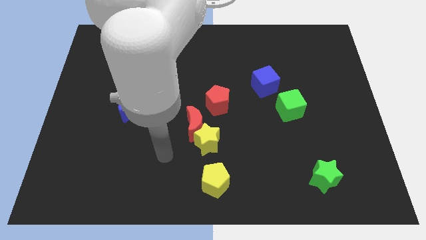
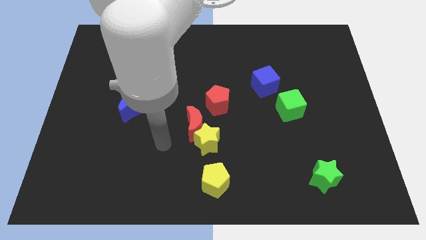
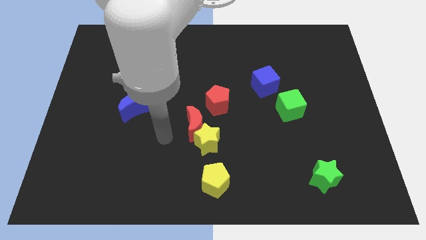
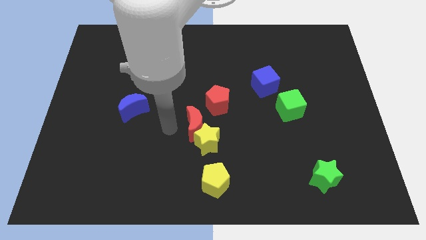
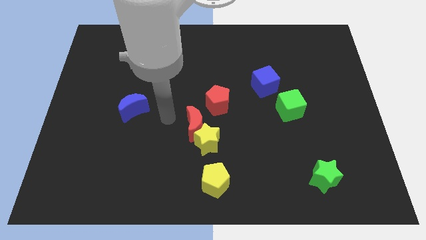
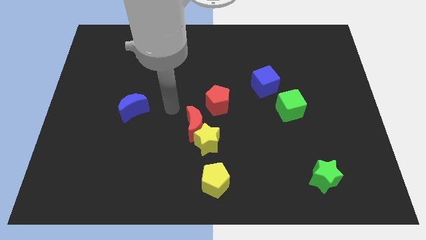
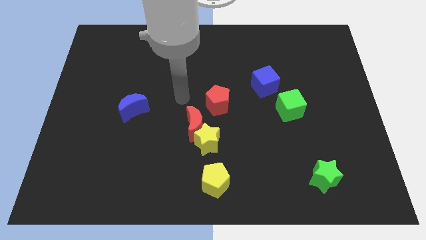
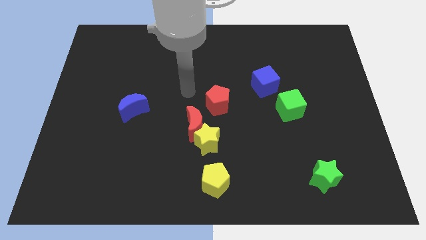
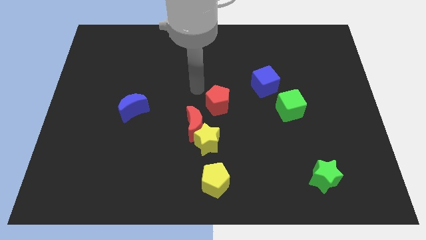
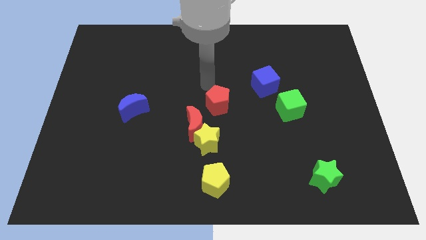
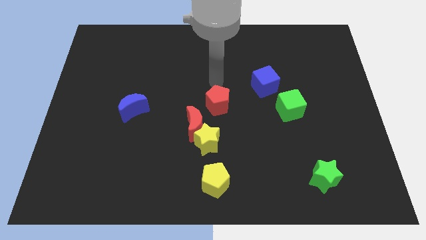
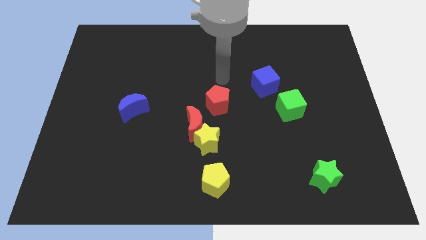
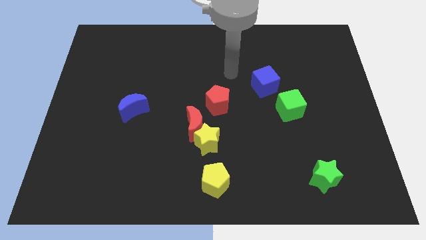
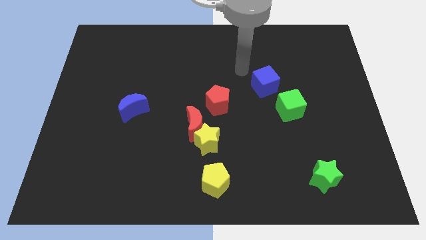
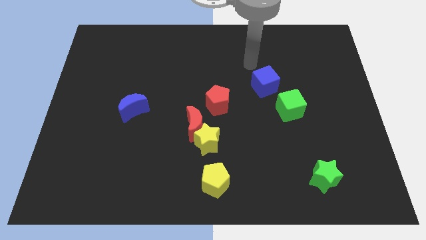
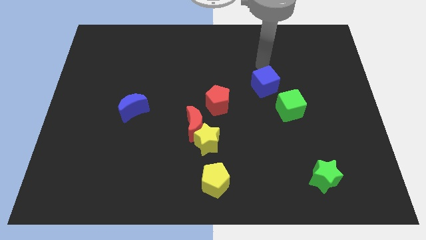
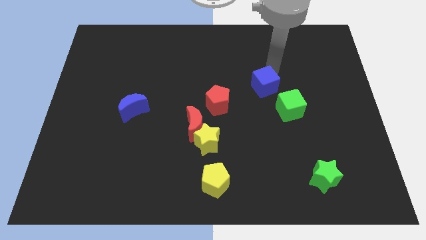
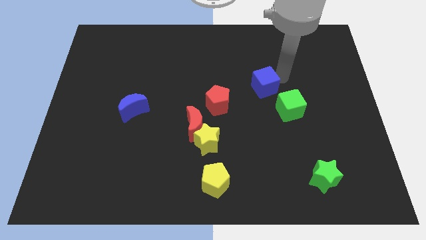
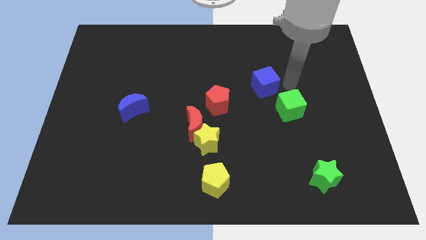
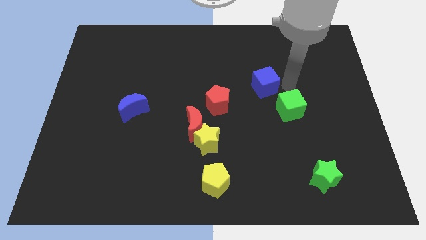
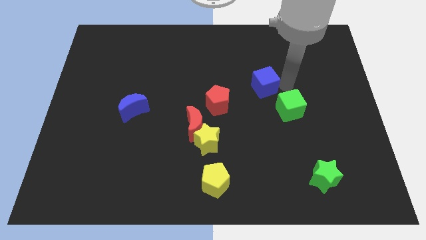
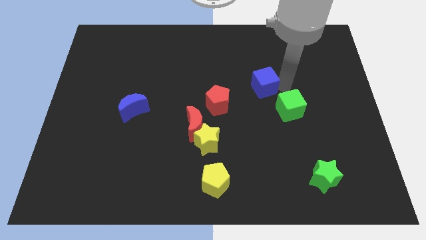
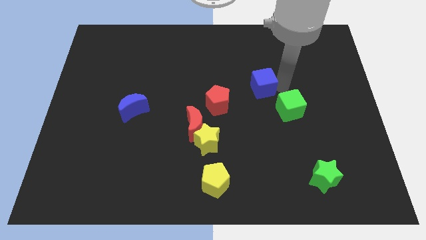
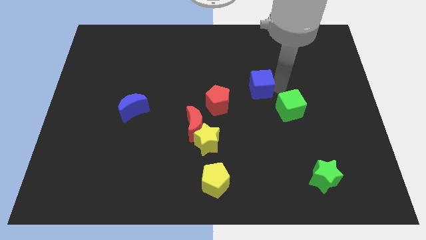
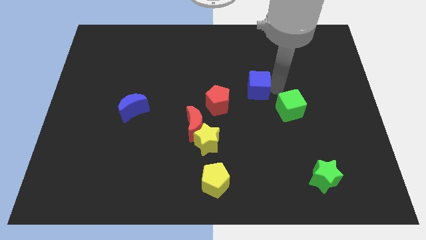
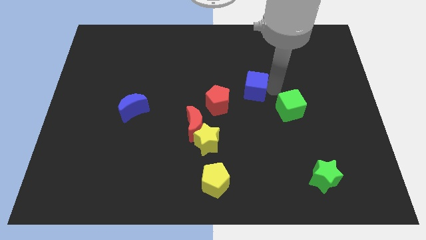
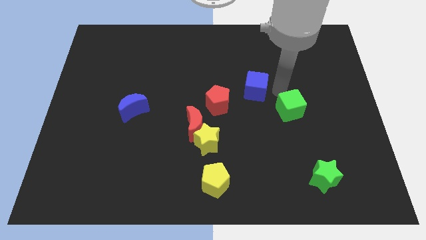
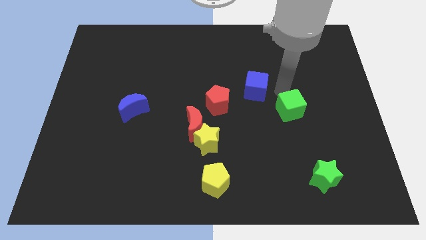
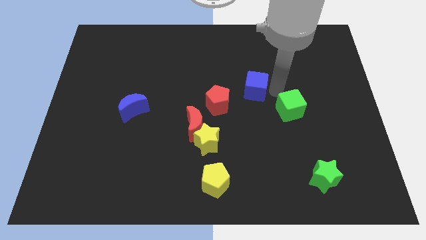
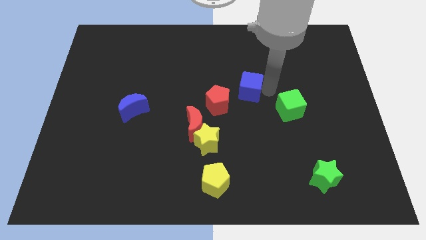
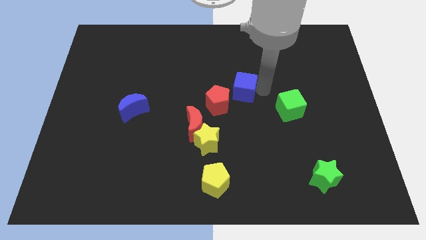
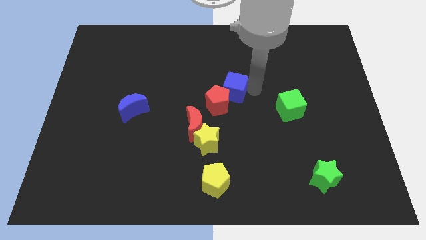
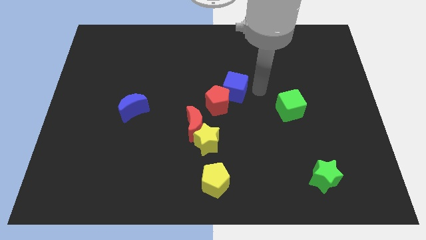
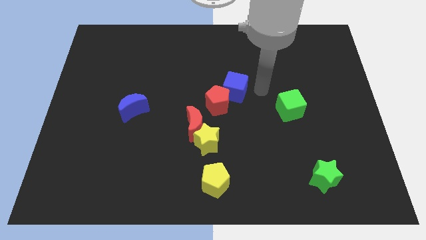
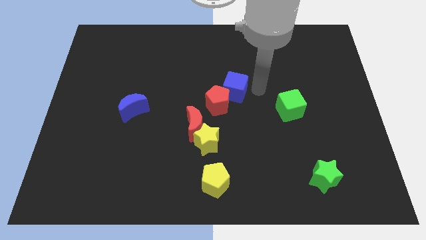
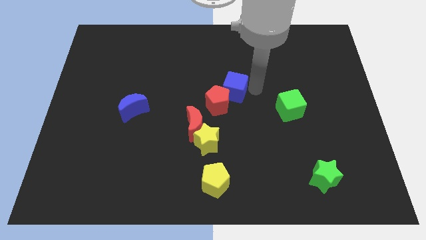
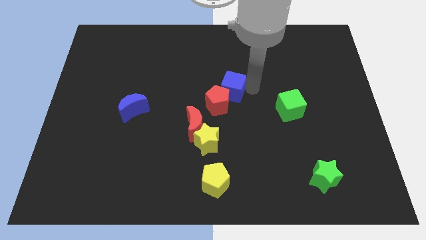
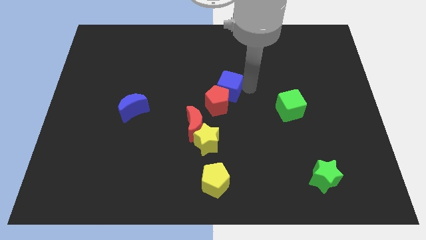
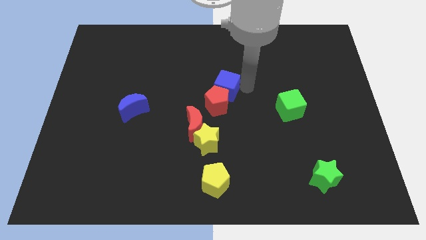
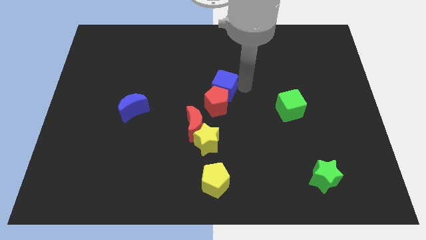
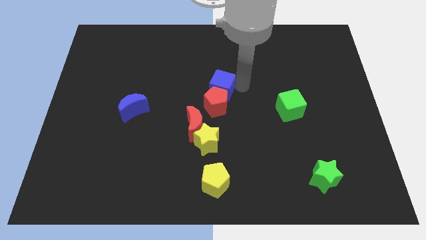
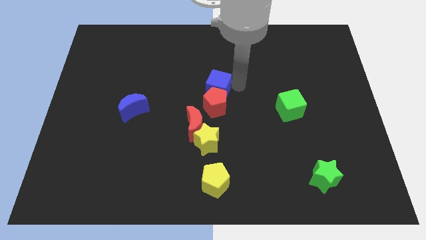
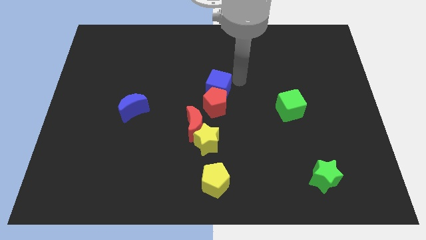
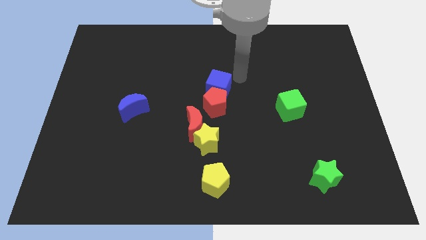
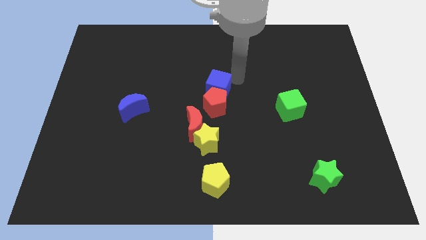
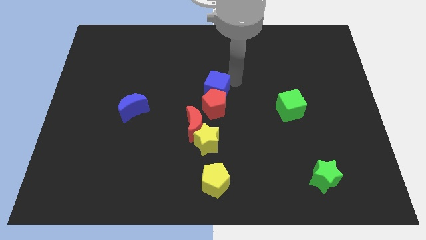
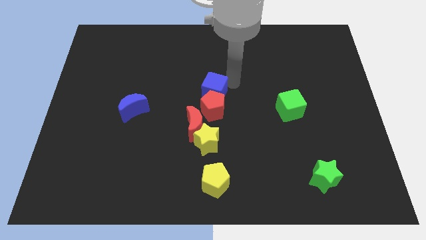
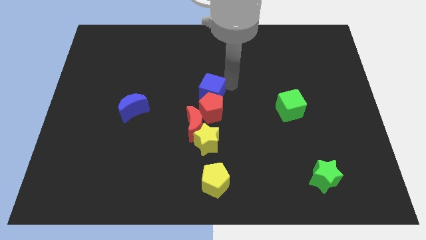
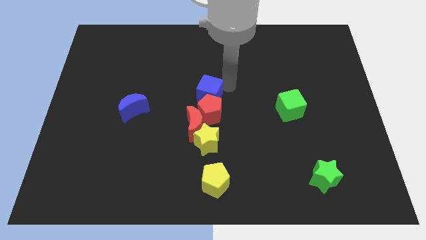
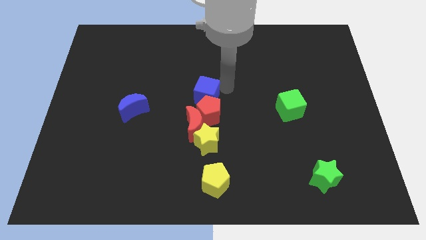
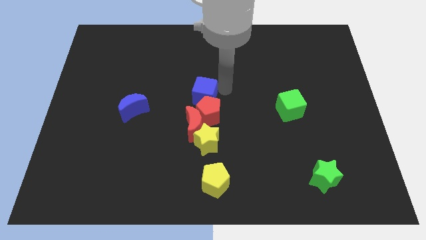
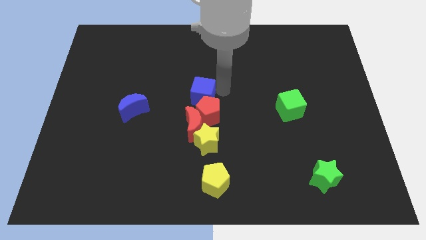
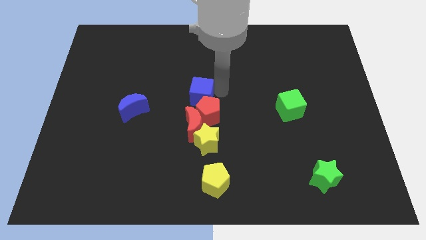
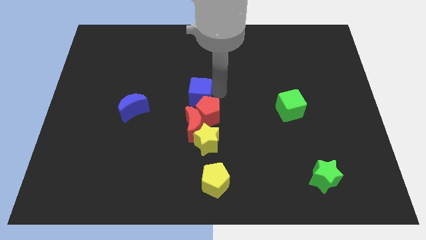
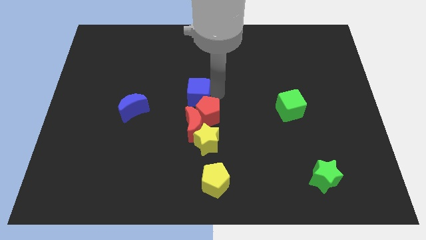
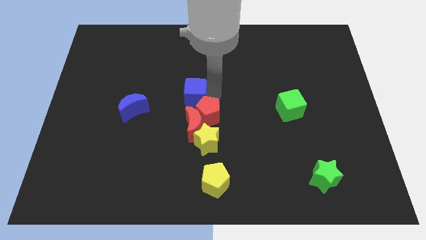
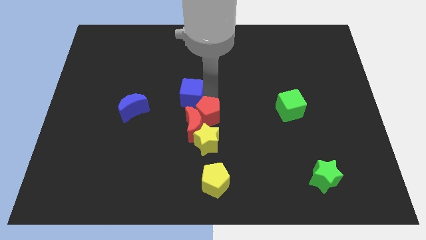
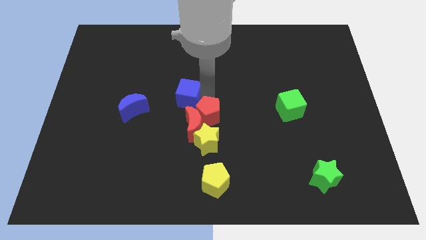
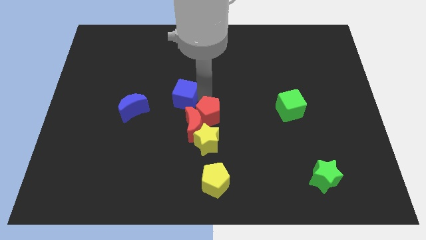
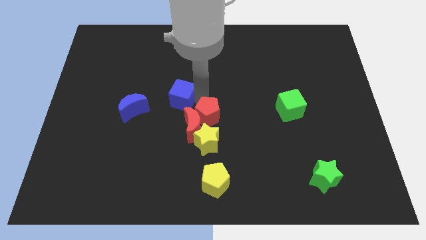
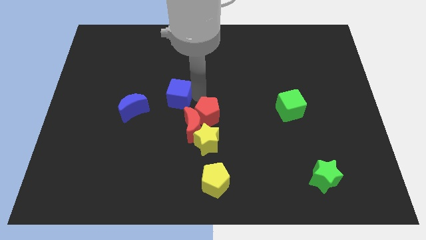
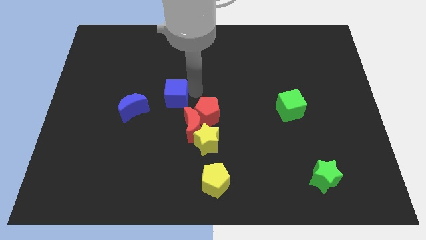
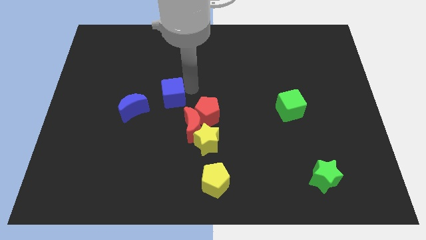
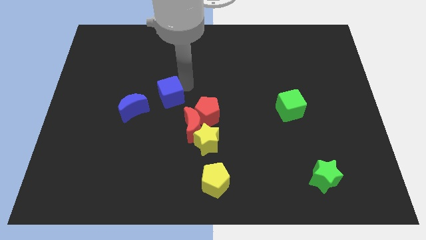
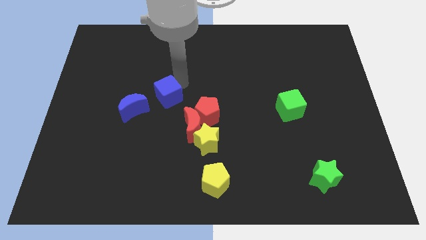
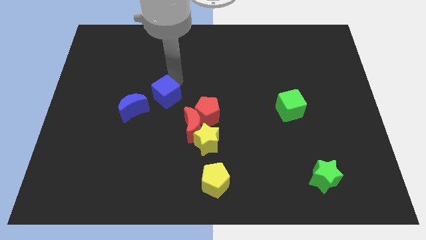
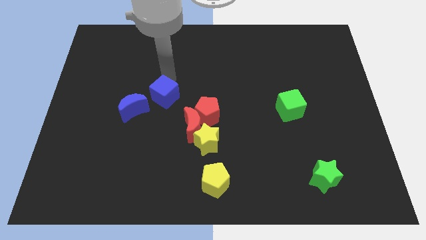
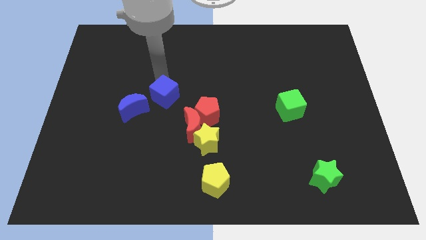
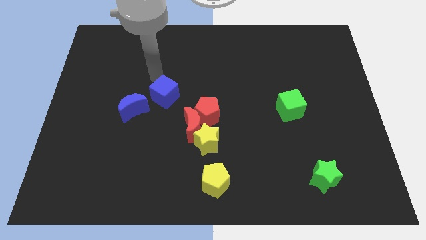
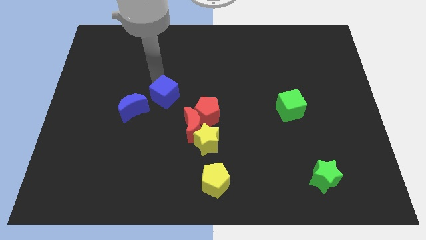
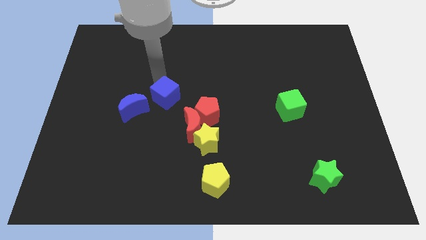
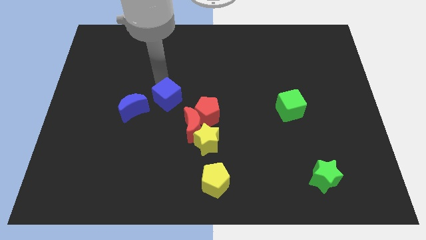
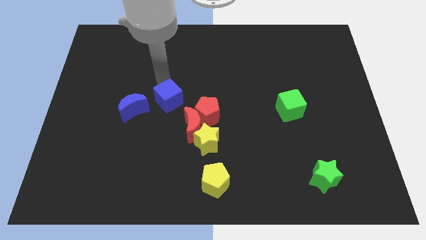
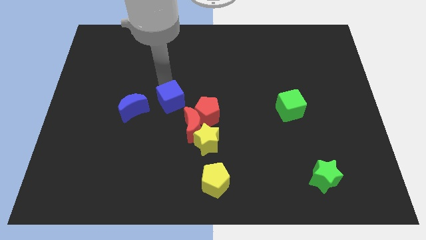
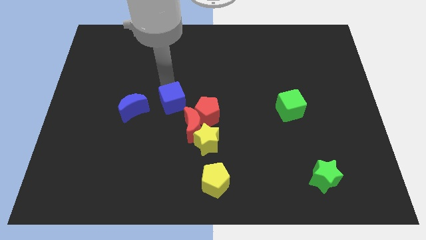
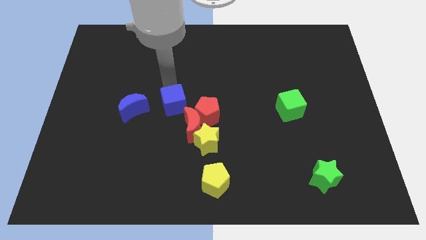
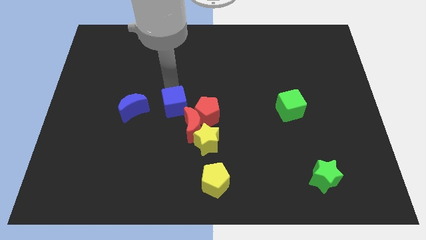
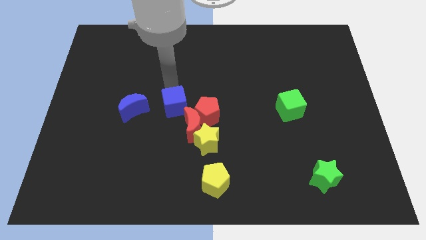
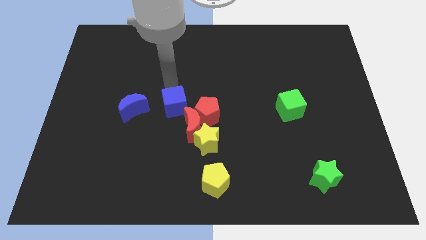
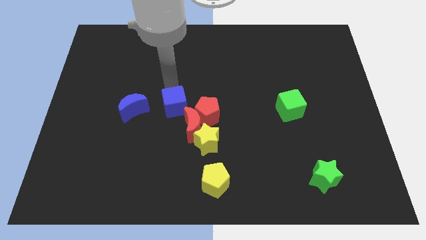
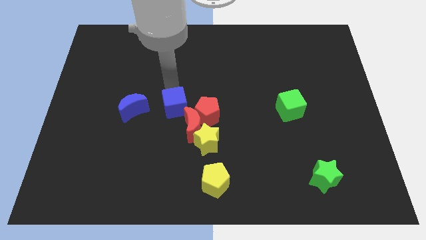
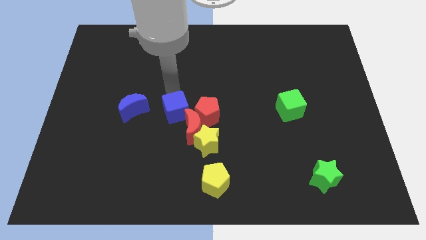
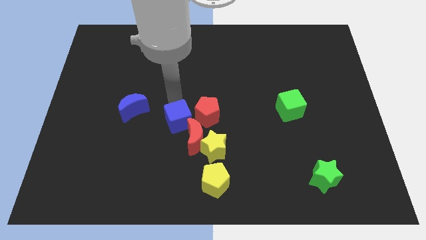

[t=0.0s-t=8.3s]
move the blue cube down and left diagonally

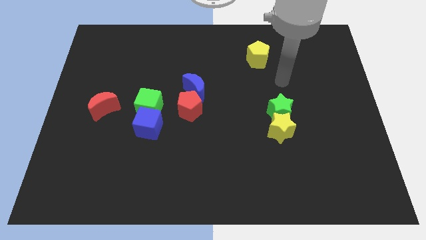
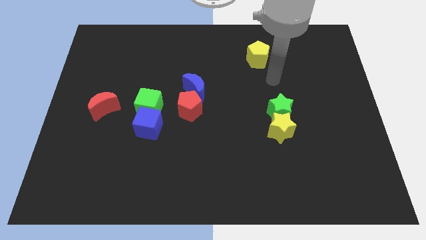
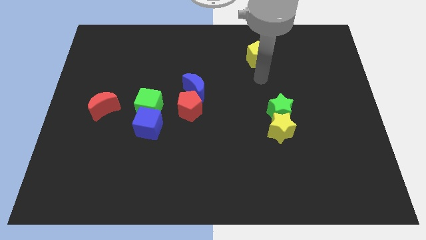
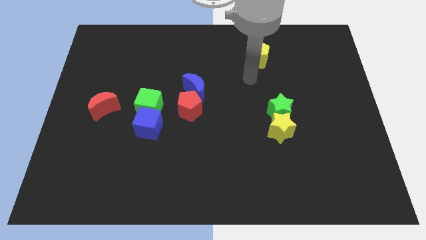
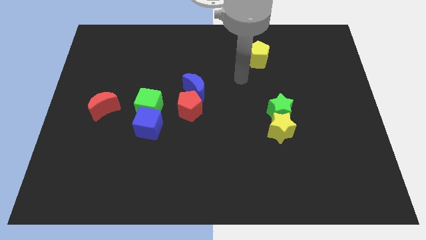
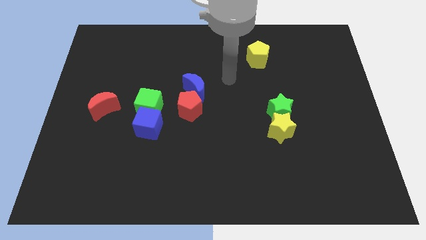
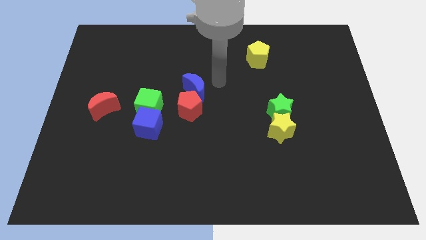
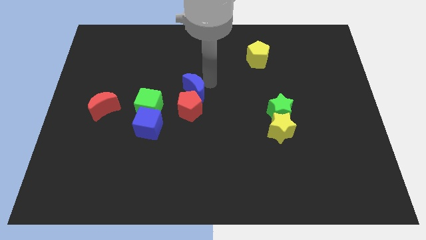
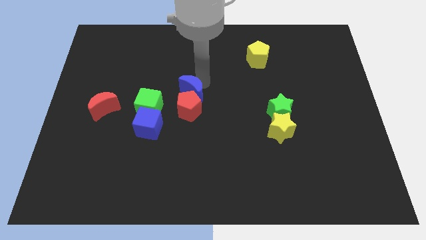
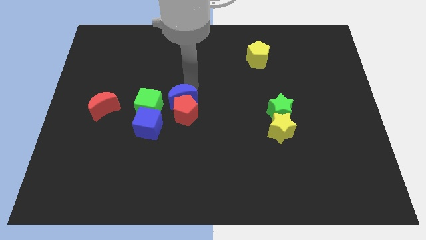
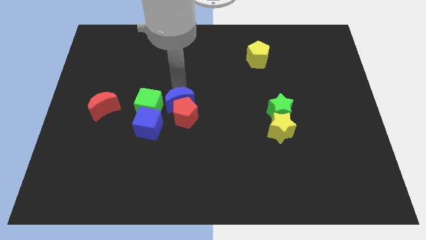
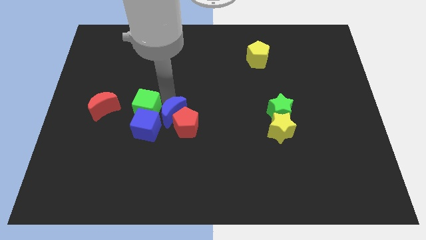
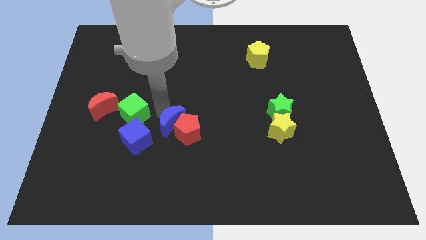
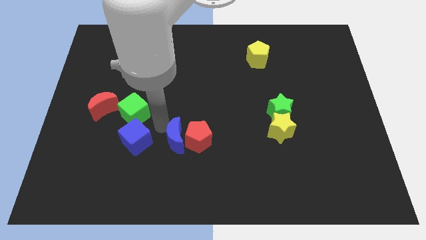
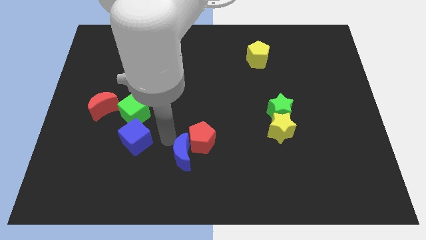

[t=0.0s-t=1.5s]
move the red pentagon diagonally down and right a little
